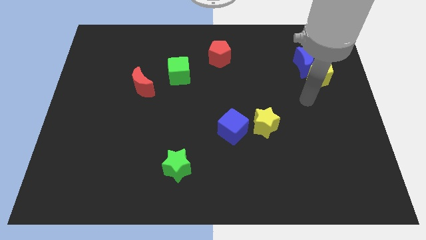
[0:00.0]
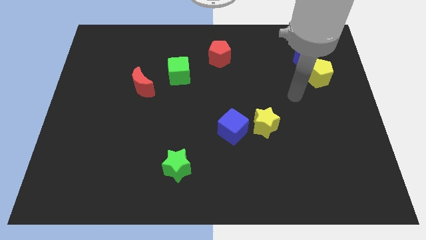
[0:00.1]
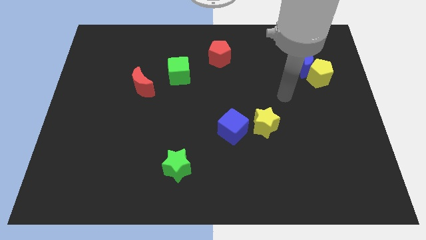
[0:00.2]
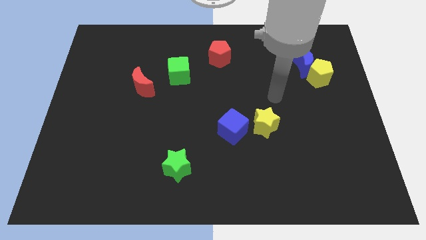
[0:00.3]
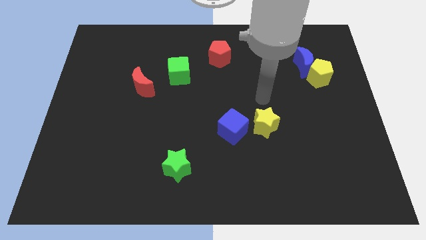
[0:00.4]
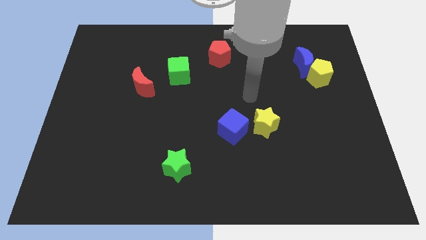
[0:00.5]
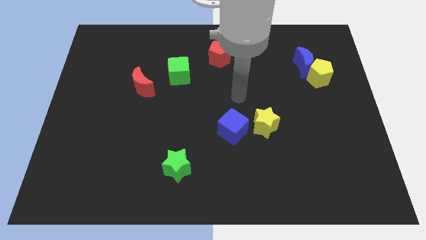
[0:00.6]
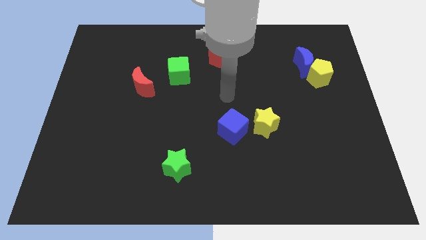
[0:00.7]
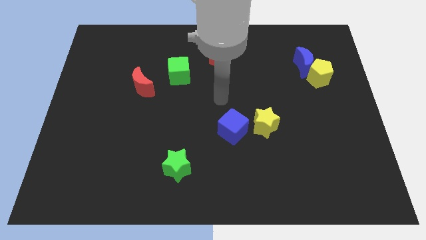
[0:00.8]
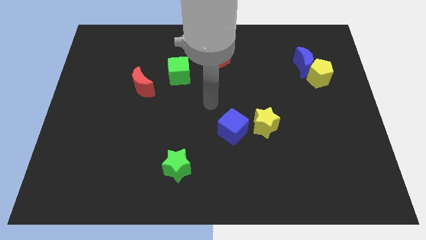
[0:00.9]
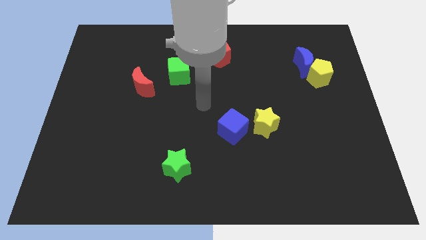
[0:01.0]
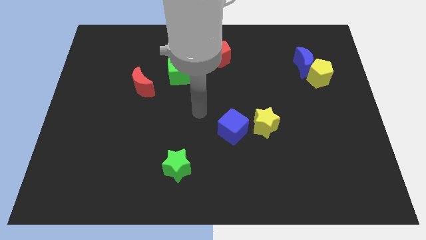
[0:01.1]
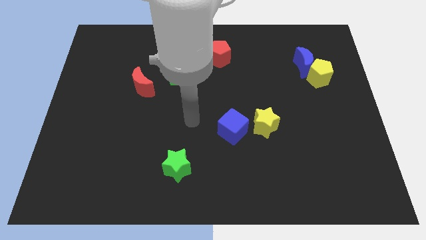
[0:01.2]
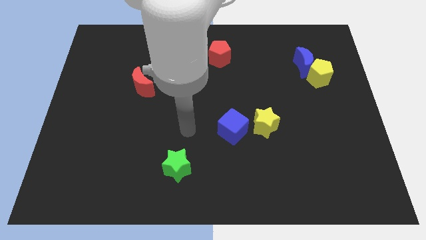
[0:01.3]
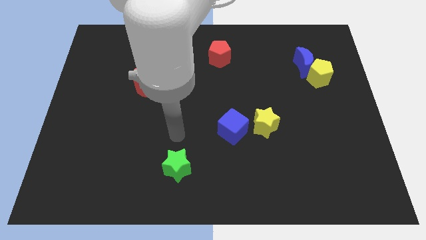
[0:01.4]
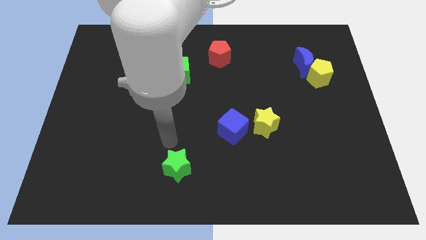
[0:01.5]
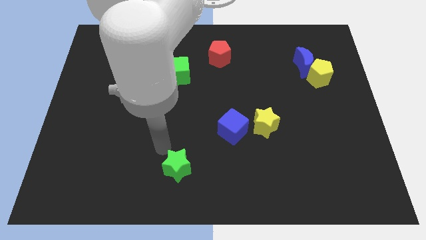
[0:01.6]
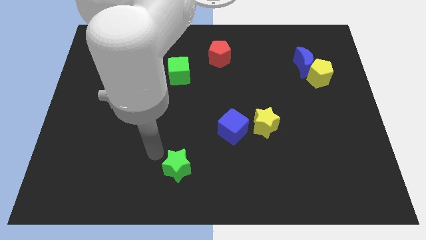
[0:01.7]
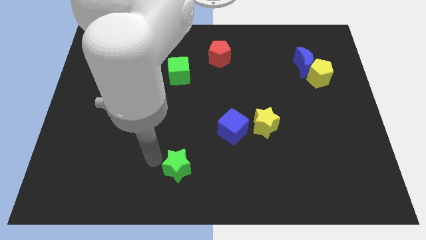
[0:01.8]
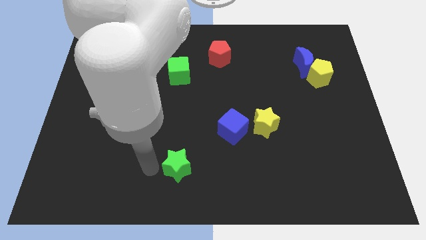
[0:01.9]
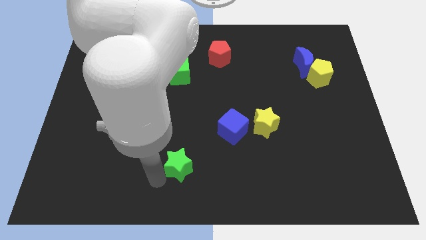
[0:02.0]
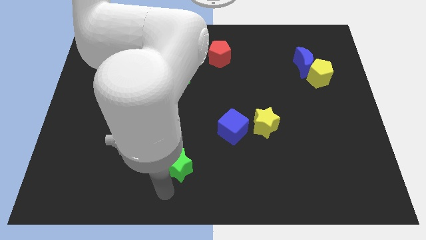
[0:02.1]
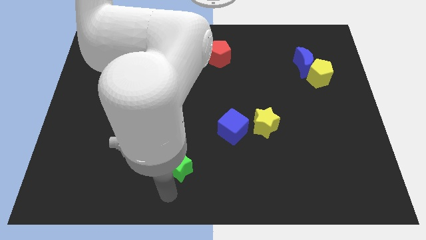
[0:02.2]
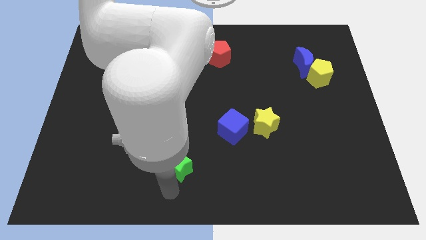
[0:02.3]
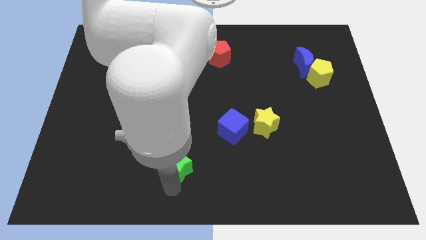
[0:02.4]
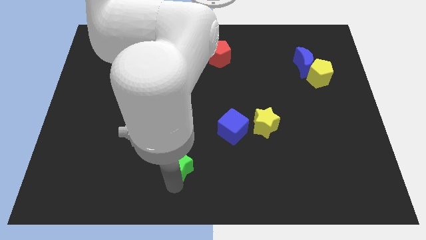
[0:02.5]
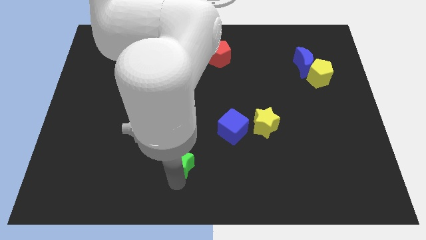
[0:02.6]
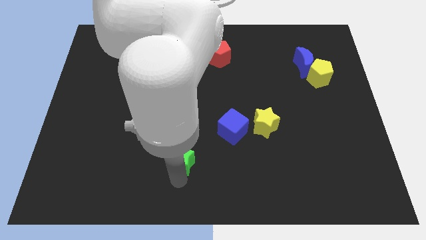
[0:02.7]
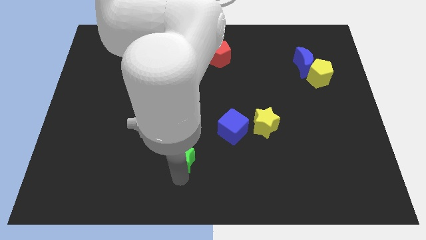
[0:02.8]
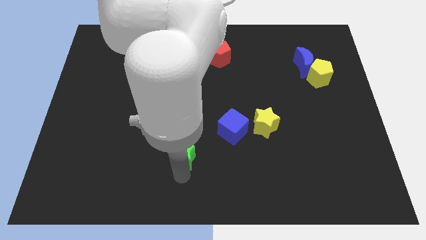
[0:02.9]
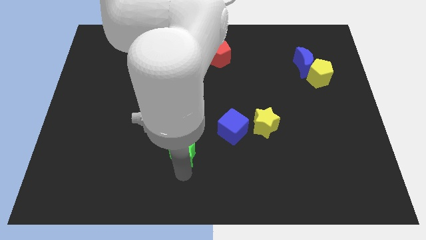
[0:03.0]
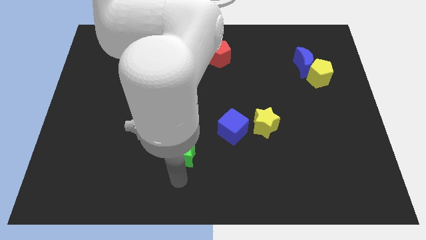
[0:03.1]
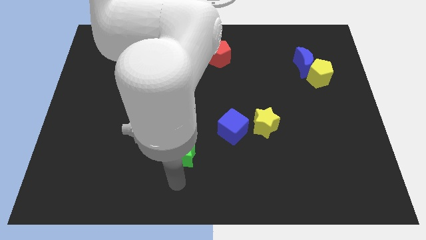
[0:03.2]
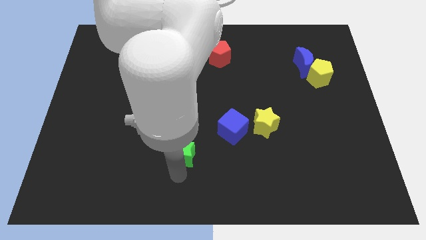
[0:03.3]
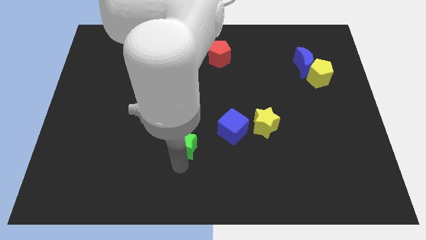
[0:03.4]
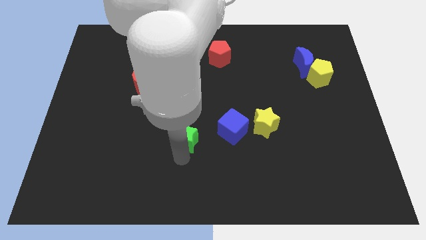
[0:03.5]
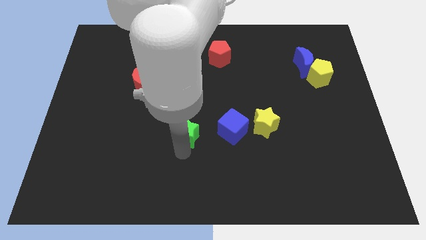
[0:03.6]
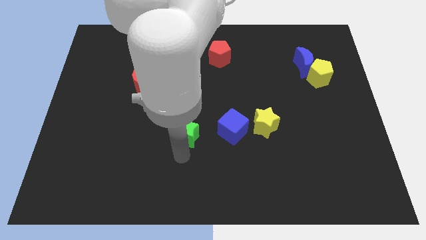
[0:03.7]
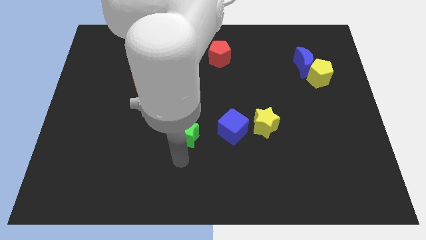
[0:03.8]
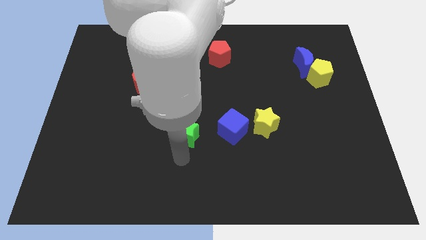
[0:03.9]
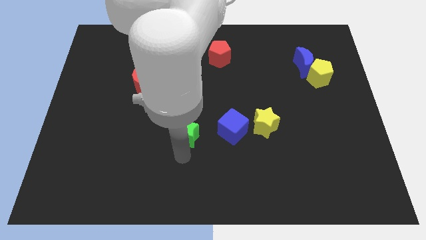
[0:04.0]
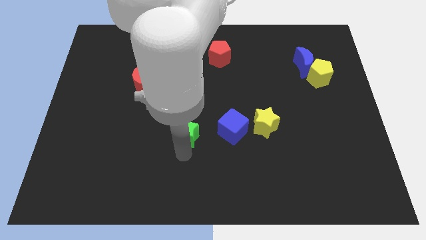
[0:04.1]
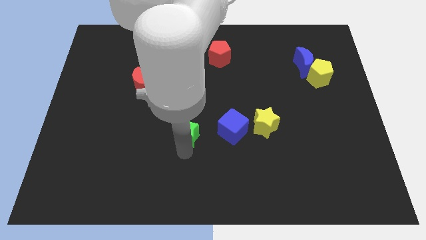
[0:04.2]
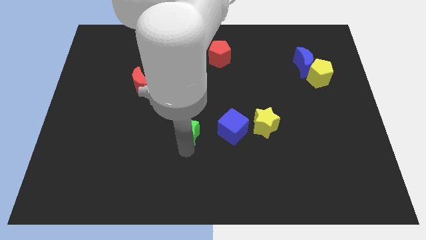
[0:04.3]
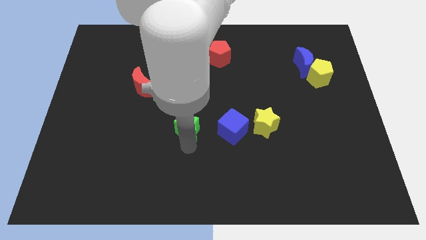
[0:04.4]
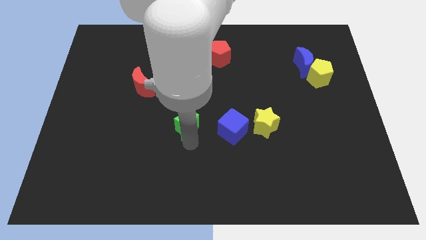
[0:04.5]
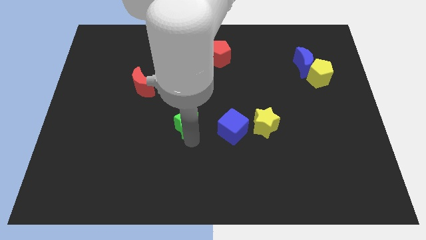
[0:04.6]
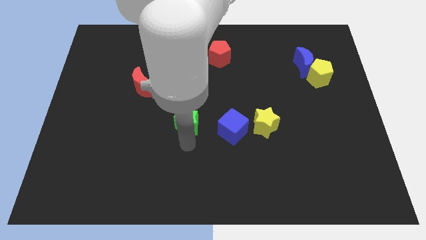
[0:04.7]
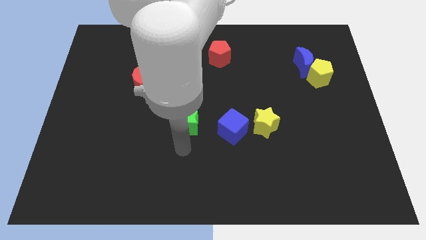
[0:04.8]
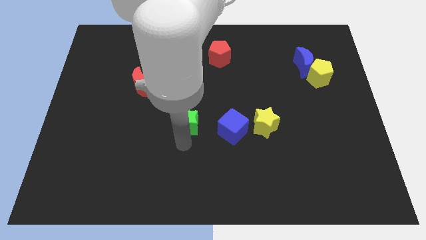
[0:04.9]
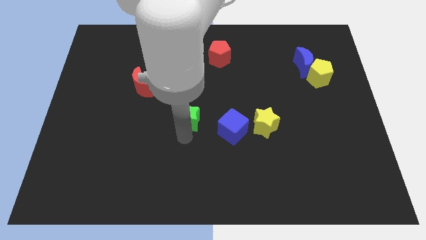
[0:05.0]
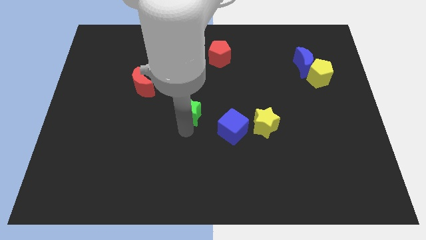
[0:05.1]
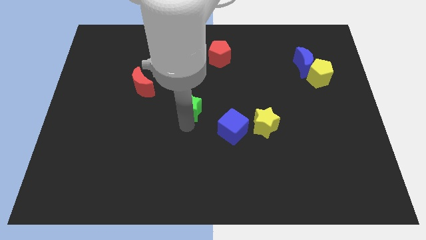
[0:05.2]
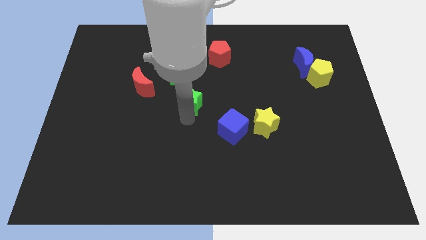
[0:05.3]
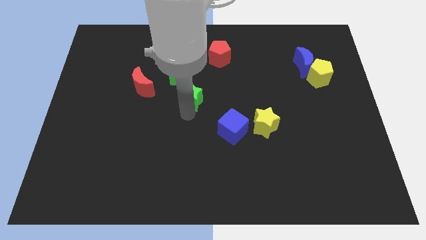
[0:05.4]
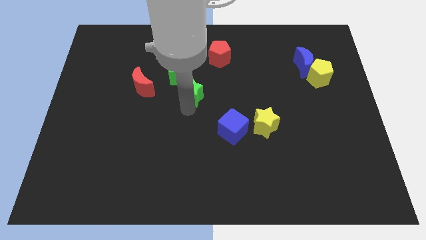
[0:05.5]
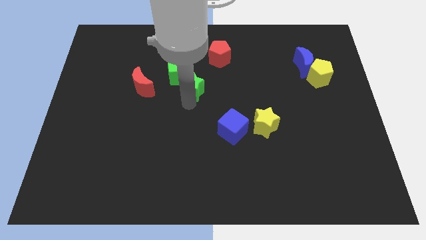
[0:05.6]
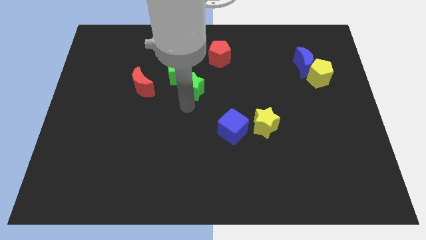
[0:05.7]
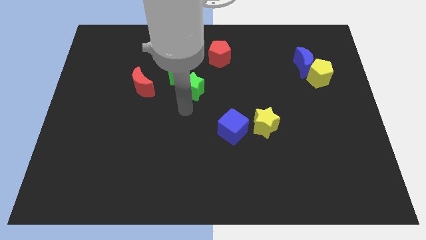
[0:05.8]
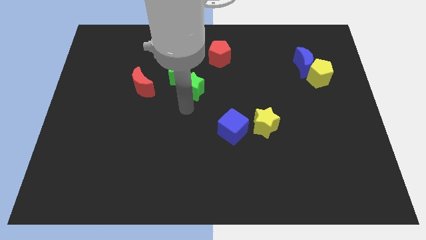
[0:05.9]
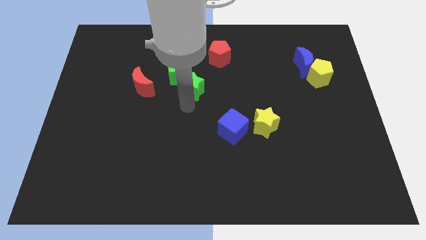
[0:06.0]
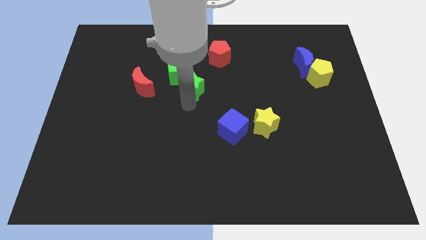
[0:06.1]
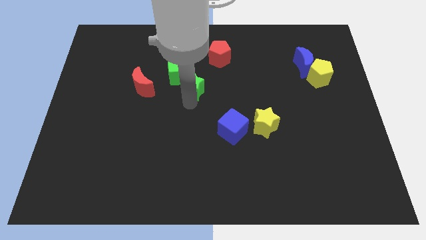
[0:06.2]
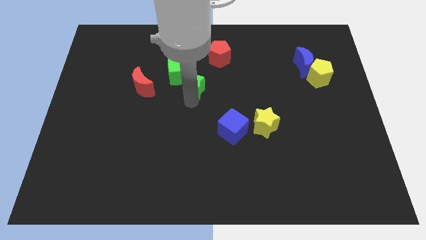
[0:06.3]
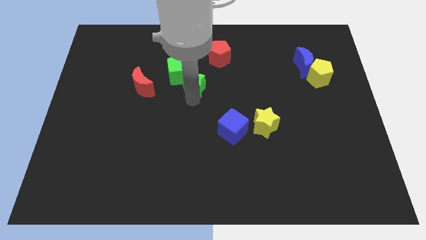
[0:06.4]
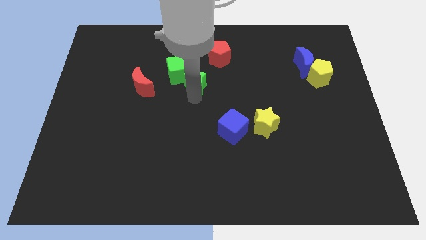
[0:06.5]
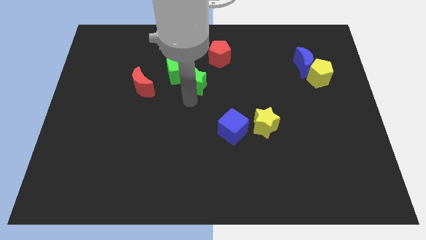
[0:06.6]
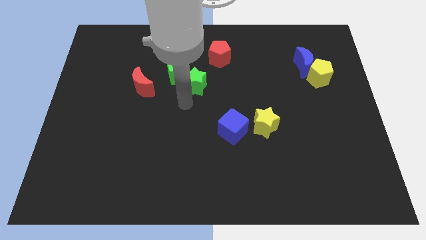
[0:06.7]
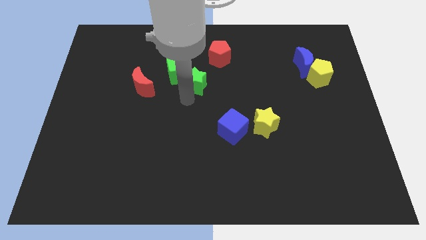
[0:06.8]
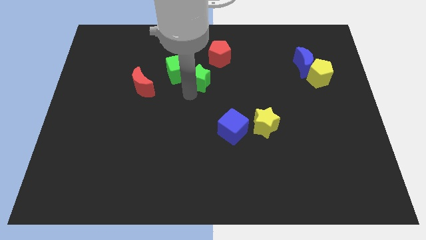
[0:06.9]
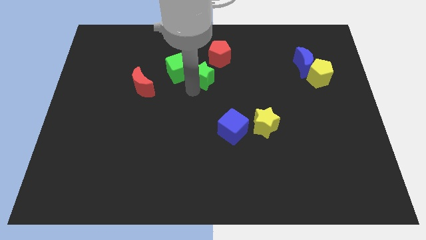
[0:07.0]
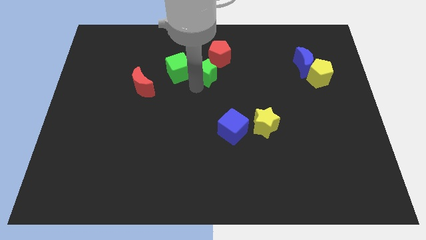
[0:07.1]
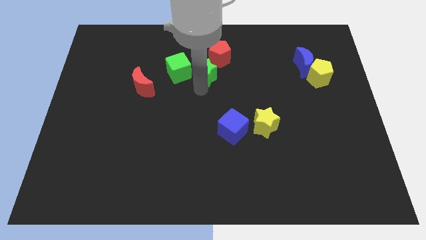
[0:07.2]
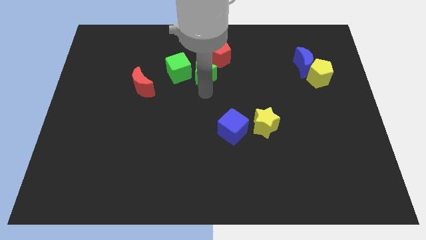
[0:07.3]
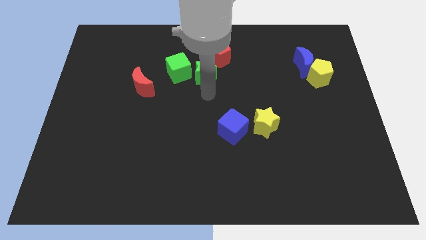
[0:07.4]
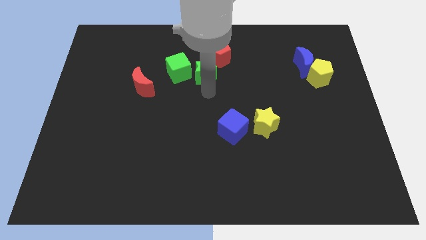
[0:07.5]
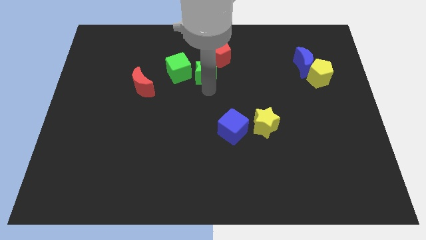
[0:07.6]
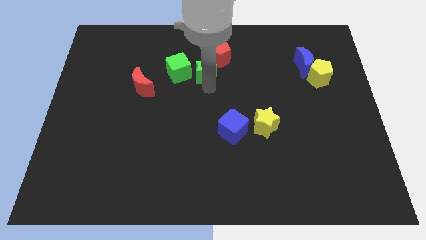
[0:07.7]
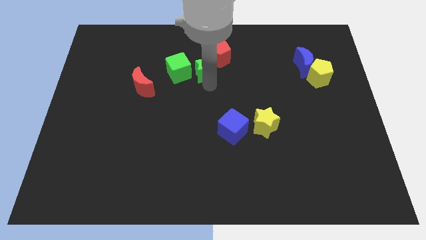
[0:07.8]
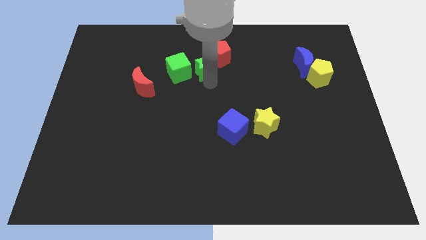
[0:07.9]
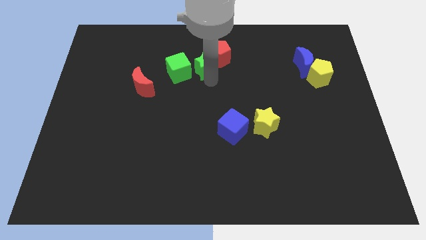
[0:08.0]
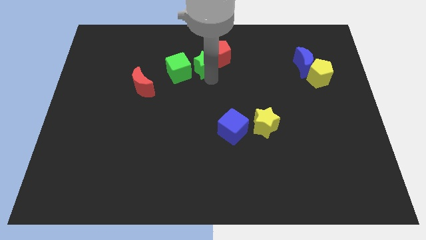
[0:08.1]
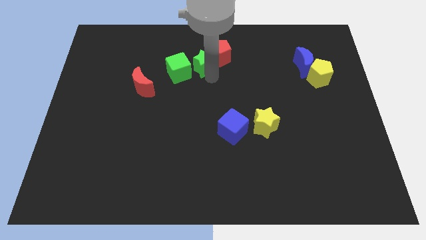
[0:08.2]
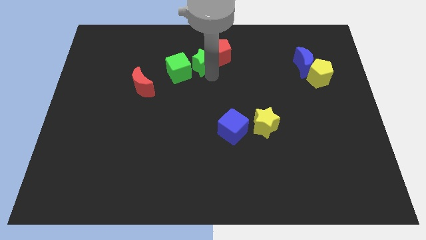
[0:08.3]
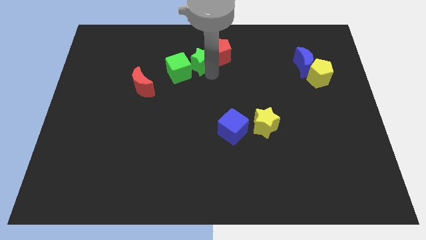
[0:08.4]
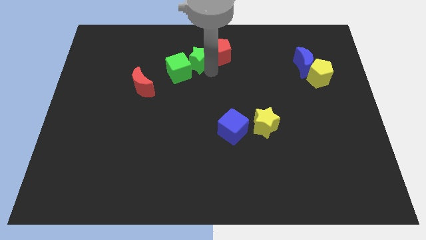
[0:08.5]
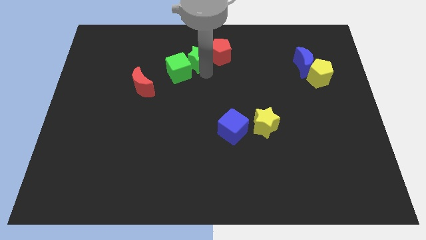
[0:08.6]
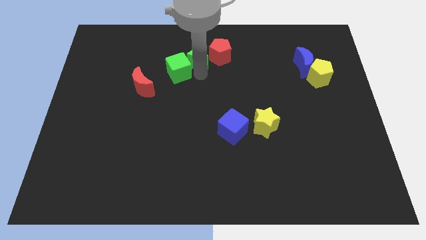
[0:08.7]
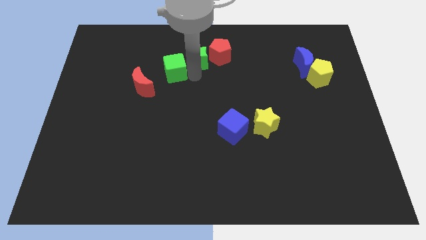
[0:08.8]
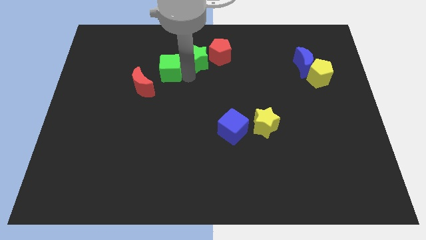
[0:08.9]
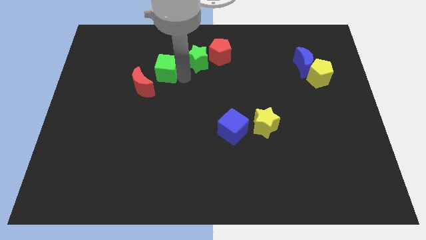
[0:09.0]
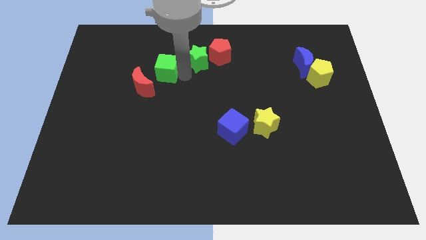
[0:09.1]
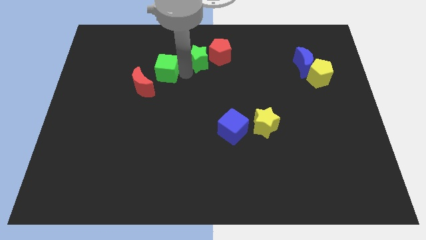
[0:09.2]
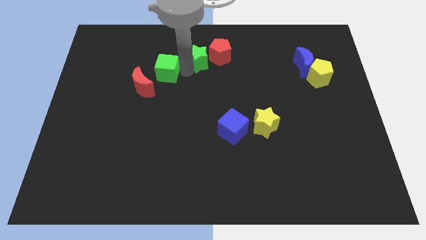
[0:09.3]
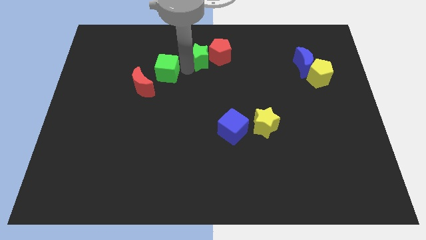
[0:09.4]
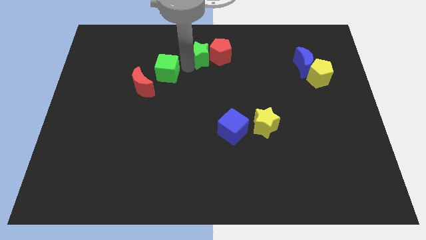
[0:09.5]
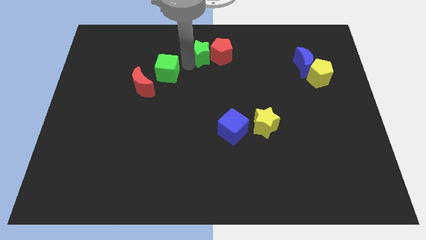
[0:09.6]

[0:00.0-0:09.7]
put the green star to the top side
